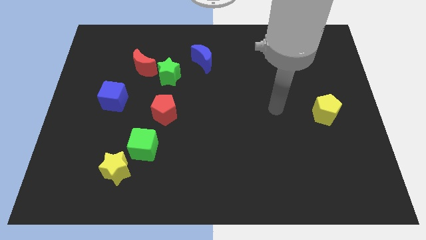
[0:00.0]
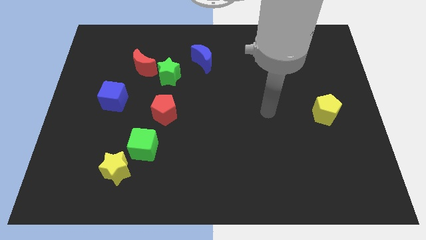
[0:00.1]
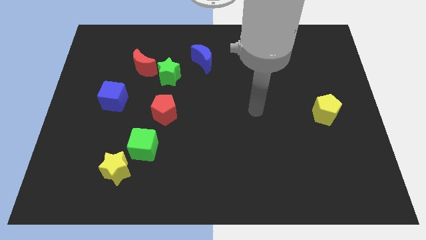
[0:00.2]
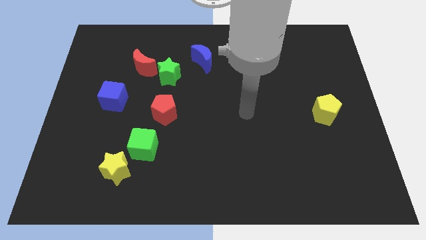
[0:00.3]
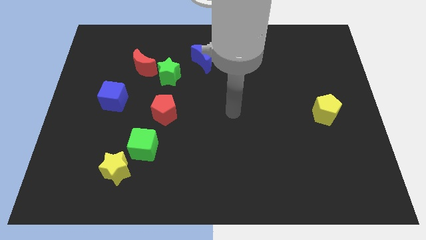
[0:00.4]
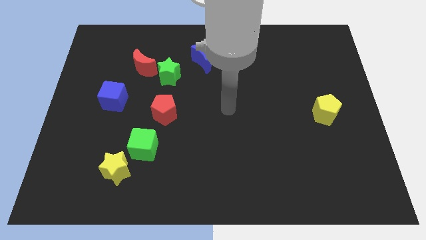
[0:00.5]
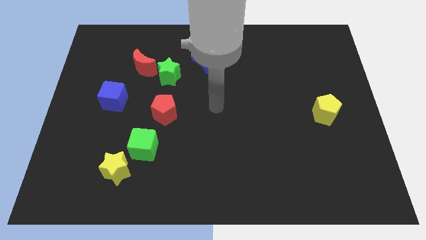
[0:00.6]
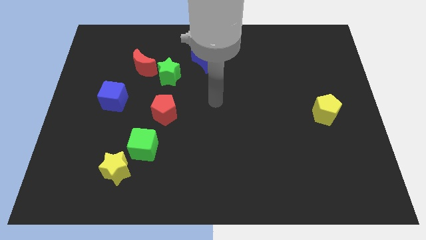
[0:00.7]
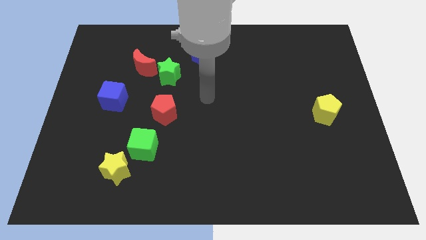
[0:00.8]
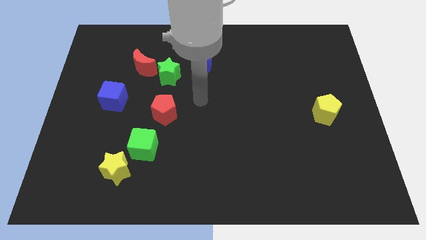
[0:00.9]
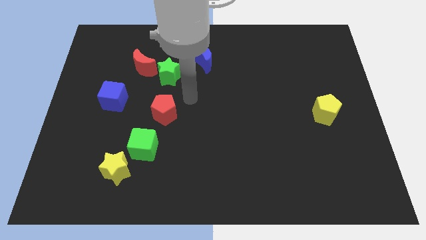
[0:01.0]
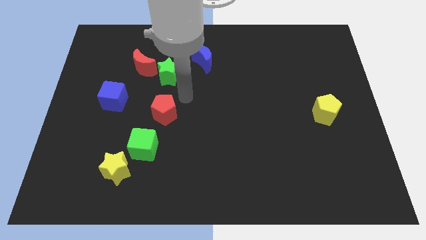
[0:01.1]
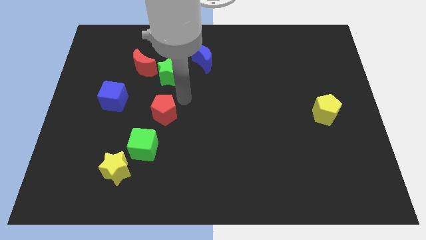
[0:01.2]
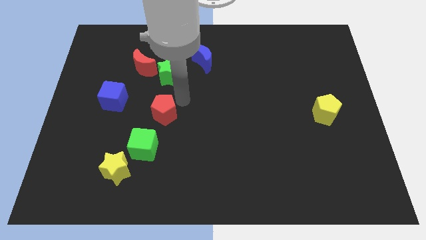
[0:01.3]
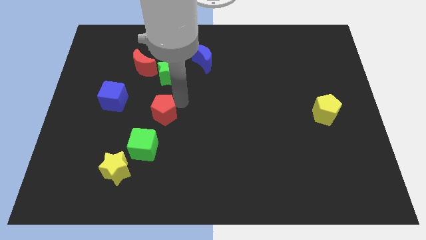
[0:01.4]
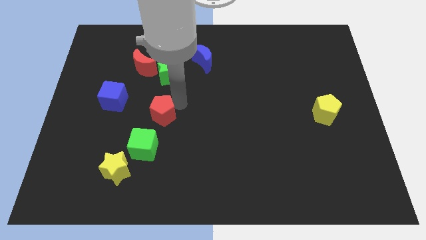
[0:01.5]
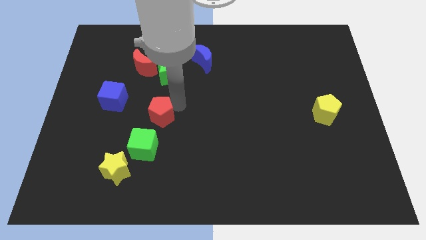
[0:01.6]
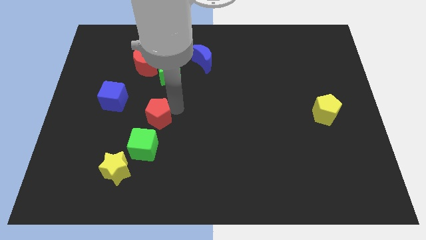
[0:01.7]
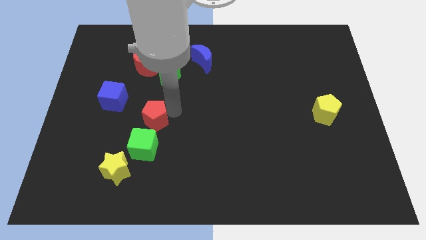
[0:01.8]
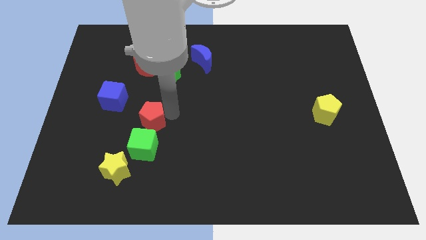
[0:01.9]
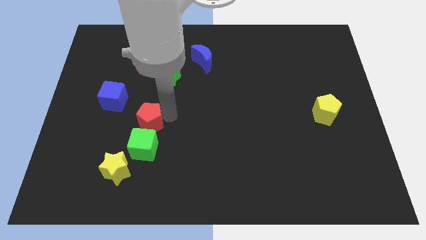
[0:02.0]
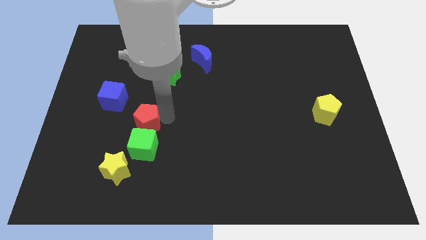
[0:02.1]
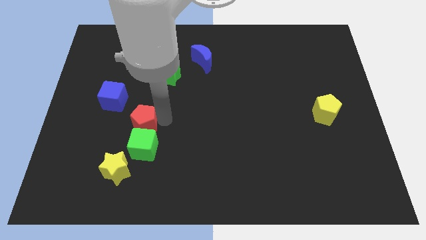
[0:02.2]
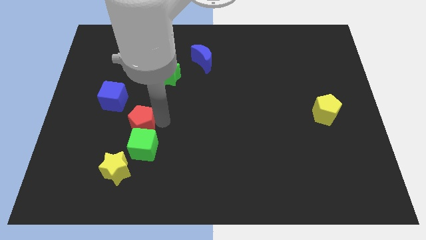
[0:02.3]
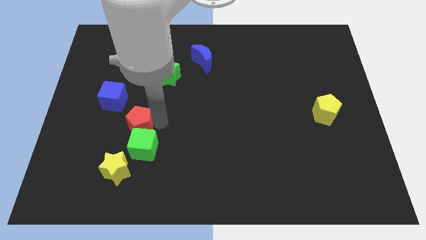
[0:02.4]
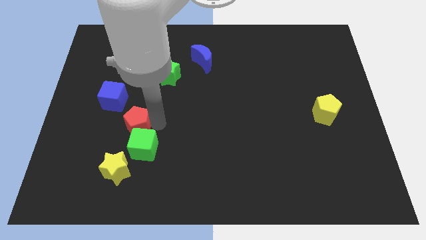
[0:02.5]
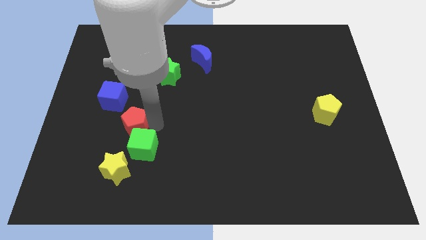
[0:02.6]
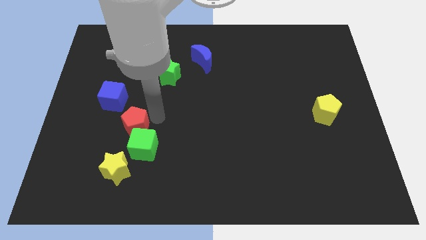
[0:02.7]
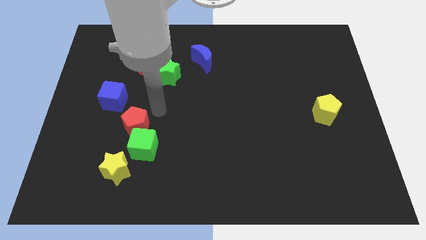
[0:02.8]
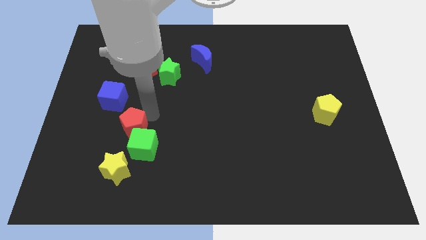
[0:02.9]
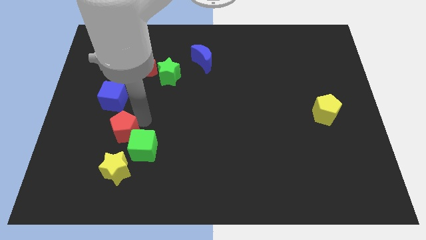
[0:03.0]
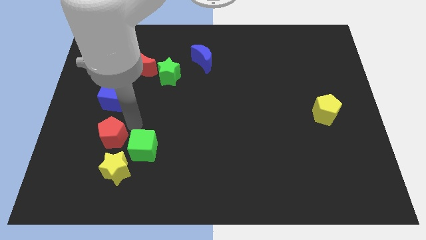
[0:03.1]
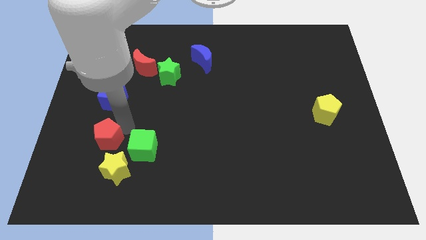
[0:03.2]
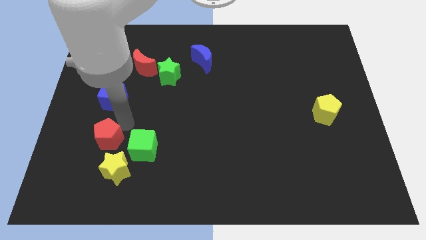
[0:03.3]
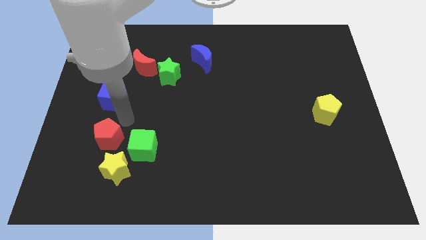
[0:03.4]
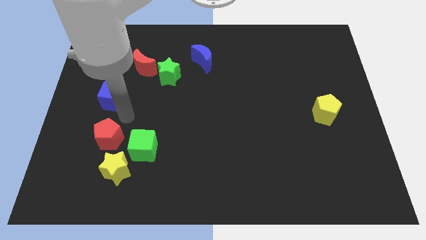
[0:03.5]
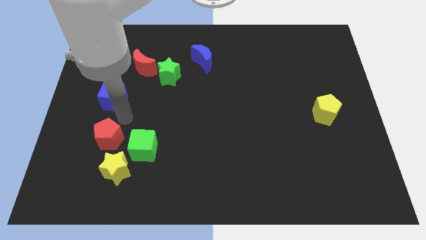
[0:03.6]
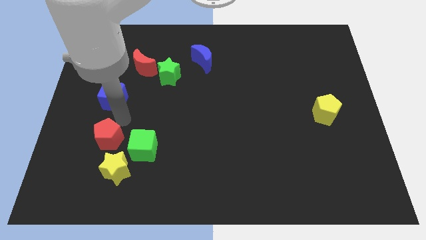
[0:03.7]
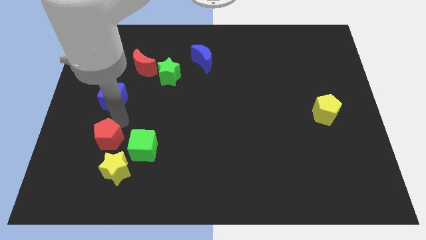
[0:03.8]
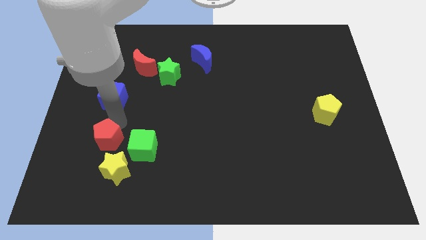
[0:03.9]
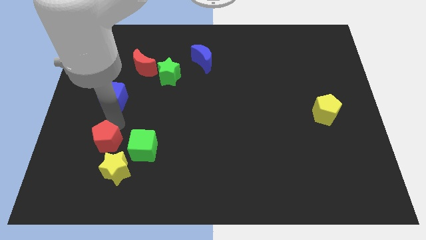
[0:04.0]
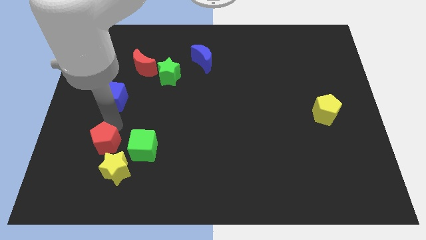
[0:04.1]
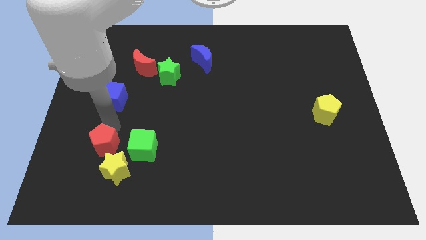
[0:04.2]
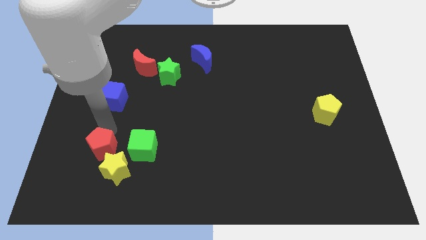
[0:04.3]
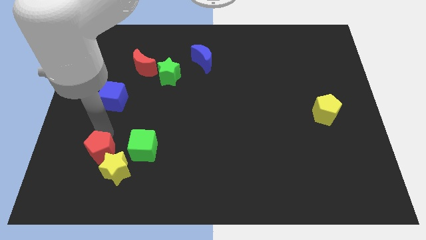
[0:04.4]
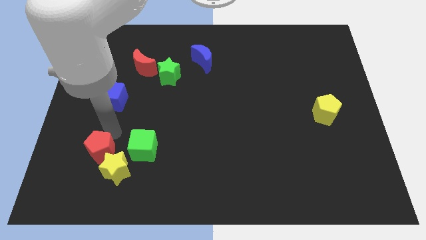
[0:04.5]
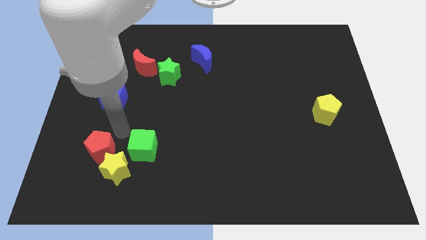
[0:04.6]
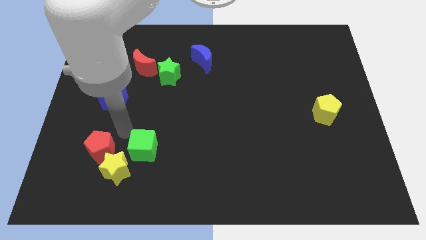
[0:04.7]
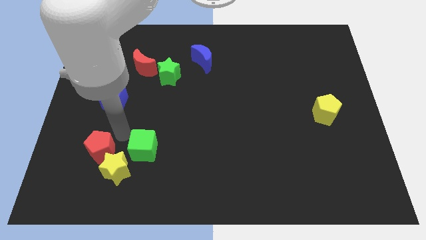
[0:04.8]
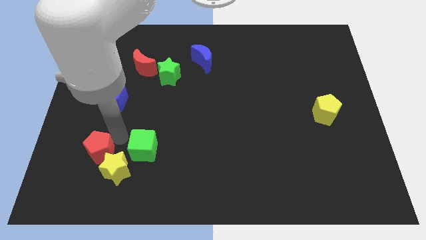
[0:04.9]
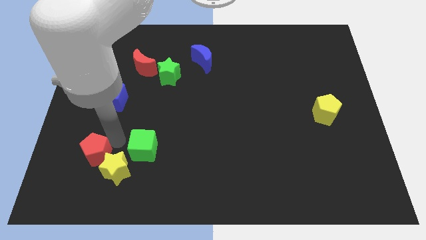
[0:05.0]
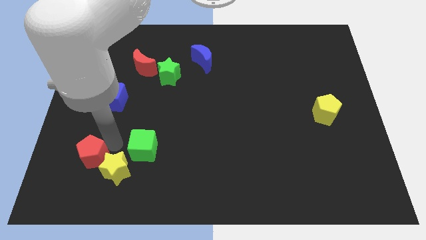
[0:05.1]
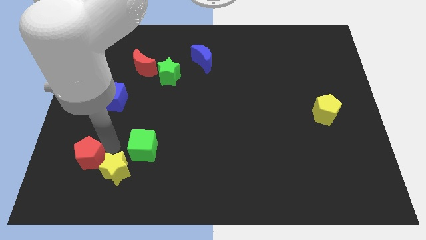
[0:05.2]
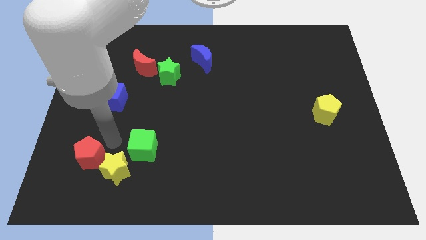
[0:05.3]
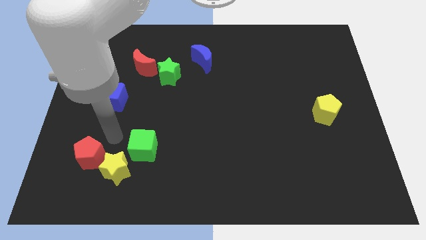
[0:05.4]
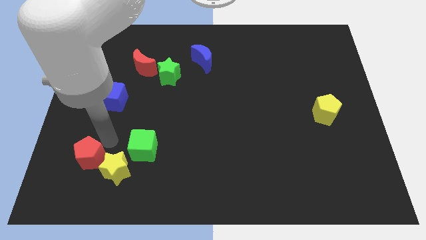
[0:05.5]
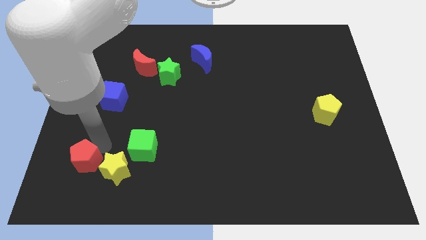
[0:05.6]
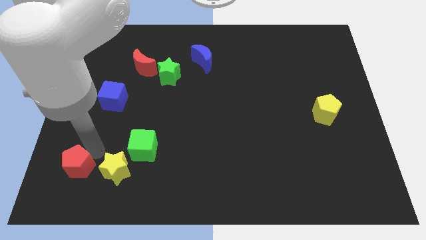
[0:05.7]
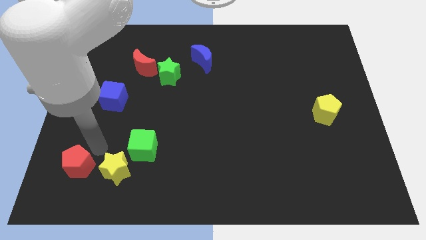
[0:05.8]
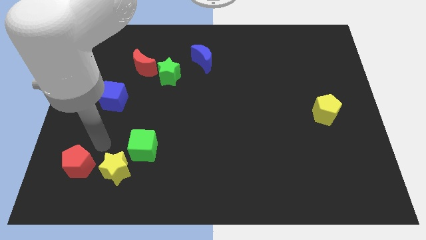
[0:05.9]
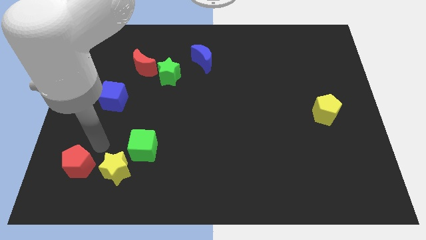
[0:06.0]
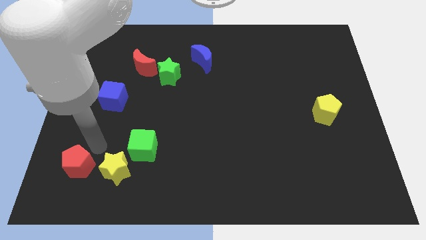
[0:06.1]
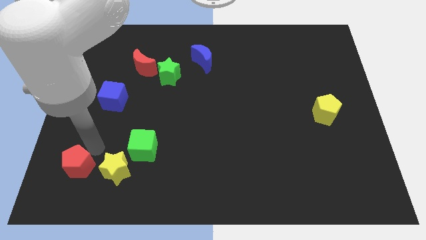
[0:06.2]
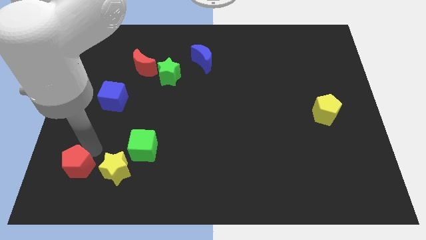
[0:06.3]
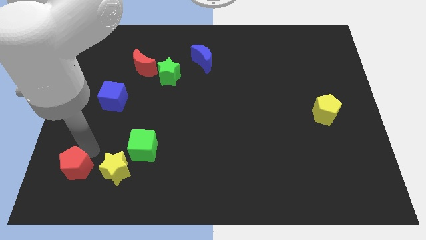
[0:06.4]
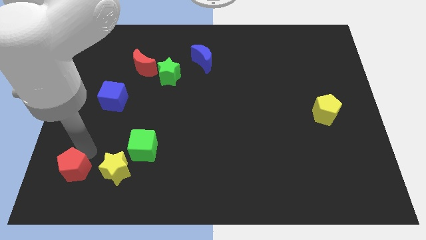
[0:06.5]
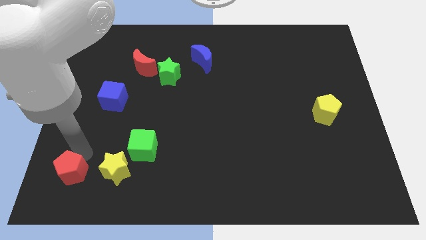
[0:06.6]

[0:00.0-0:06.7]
slide the red pentagon to the lower left corner
